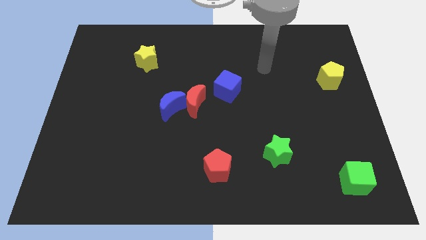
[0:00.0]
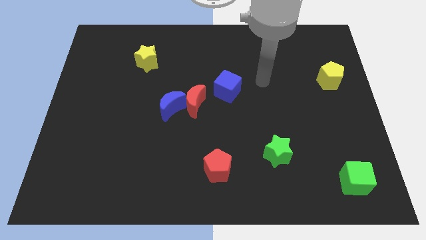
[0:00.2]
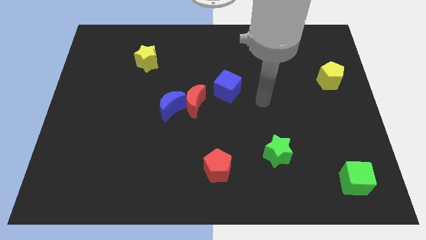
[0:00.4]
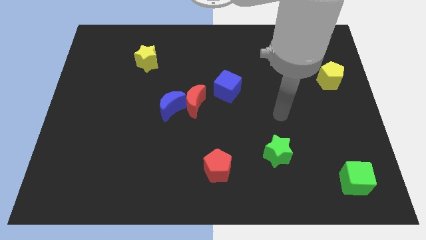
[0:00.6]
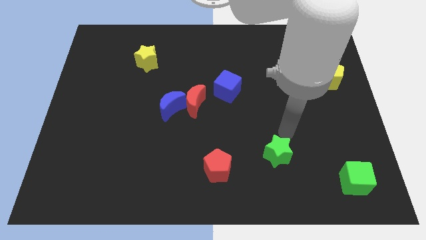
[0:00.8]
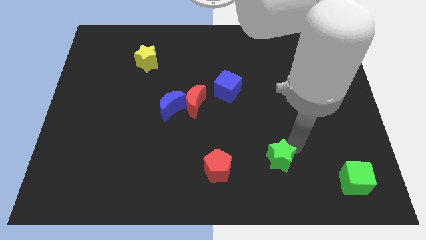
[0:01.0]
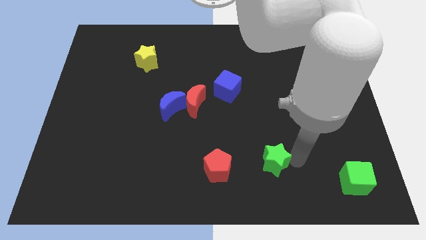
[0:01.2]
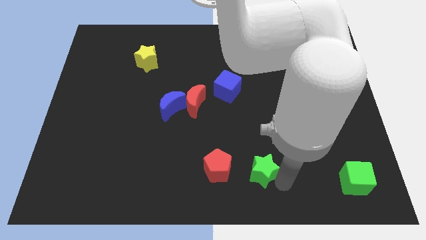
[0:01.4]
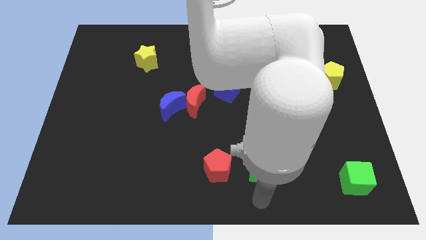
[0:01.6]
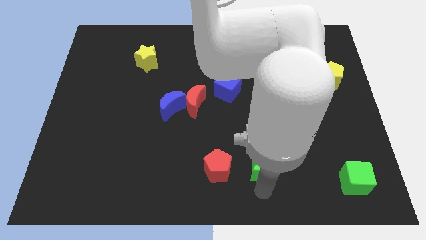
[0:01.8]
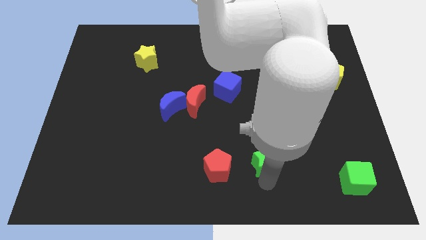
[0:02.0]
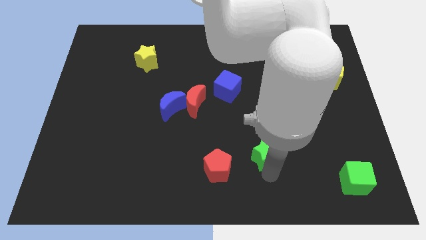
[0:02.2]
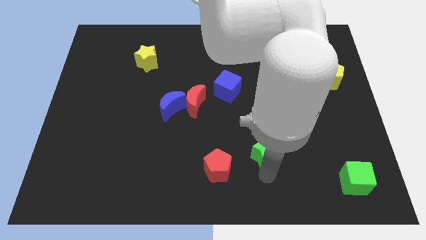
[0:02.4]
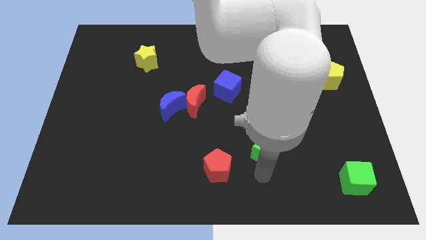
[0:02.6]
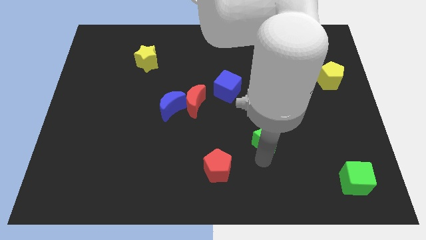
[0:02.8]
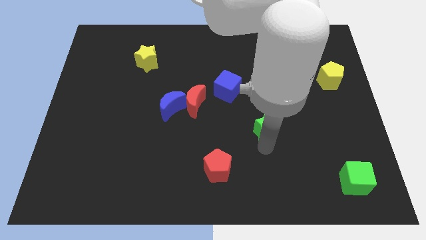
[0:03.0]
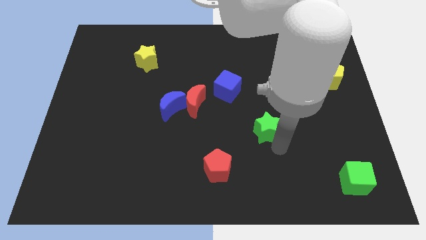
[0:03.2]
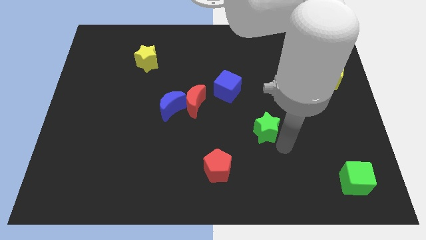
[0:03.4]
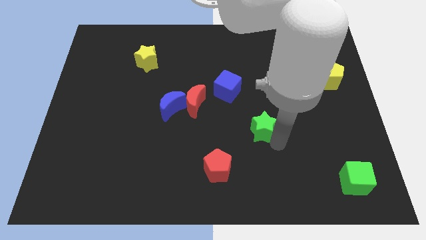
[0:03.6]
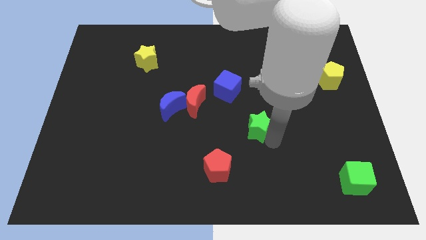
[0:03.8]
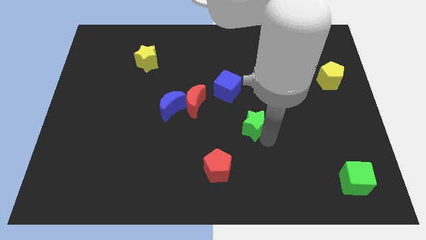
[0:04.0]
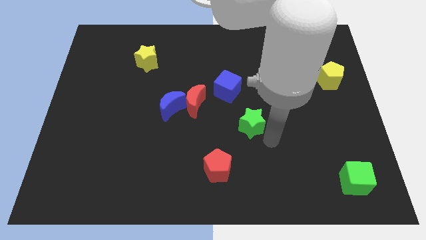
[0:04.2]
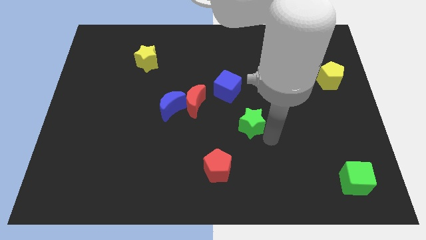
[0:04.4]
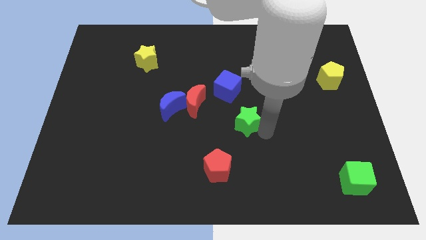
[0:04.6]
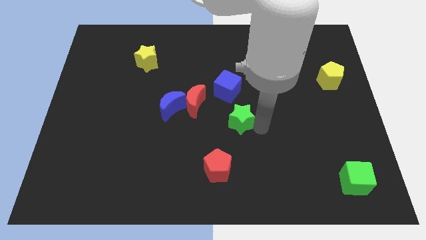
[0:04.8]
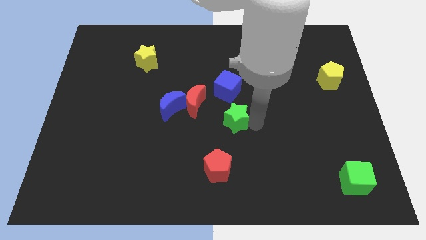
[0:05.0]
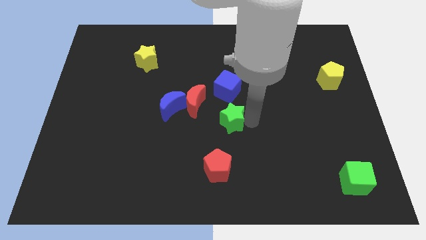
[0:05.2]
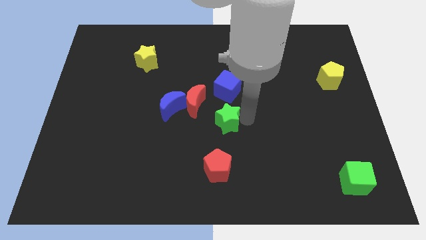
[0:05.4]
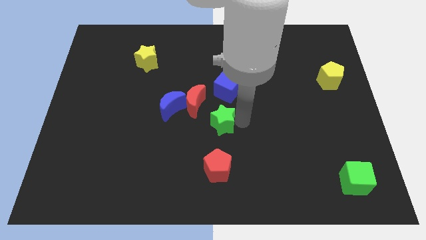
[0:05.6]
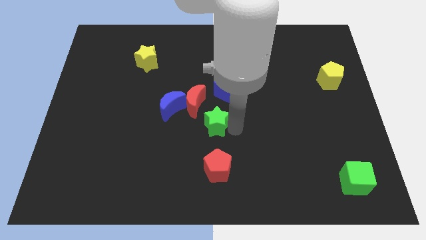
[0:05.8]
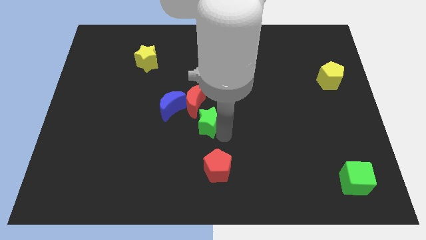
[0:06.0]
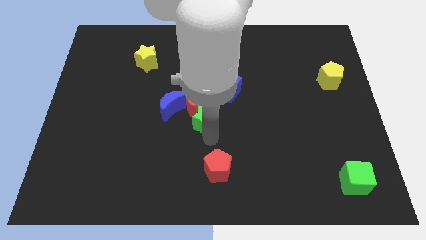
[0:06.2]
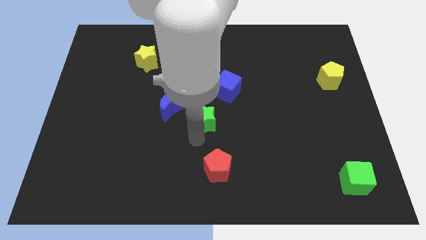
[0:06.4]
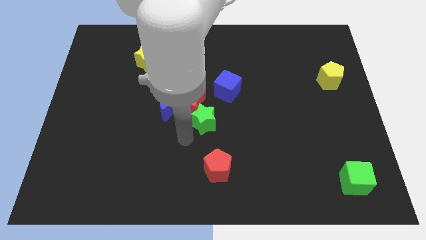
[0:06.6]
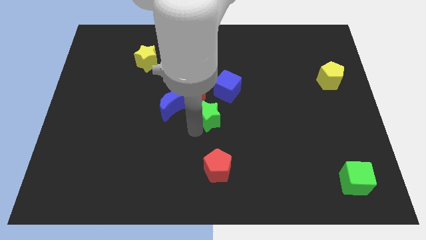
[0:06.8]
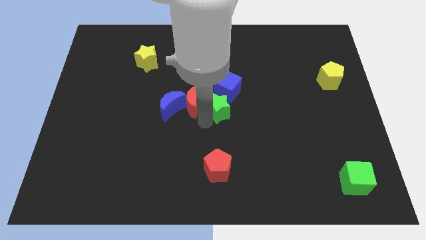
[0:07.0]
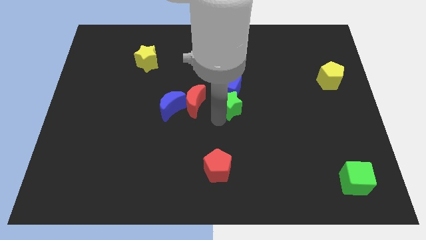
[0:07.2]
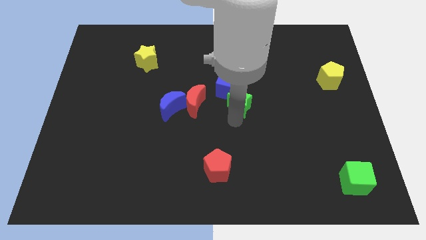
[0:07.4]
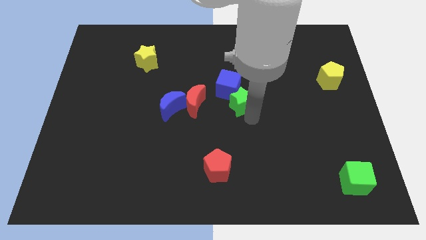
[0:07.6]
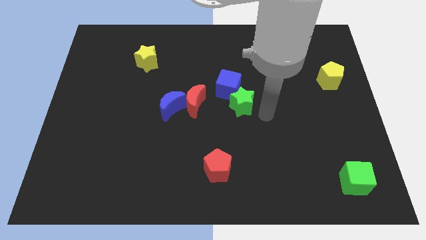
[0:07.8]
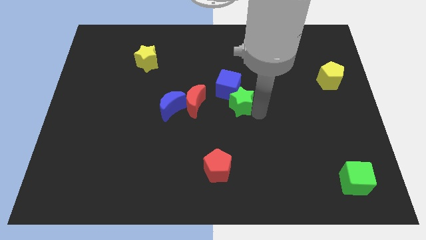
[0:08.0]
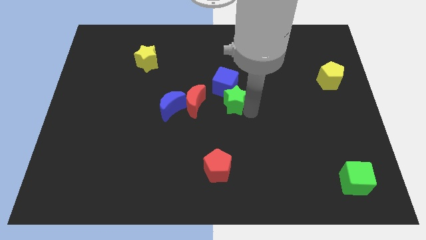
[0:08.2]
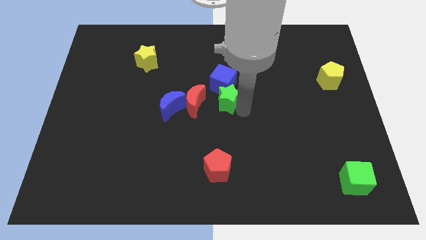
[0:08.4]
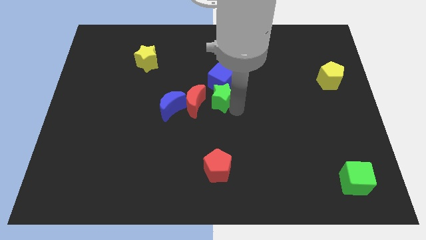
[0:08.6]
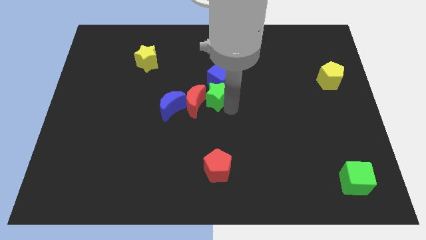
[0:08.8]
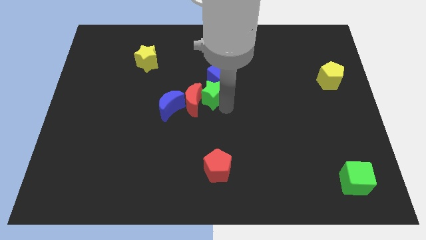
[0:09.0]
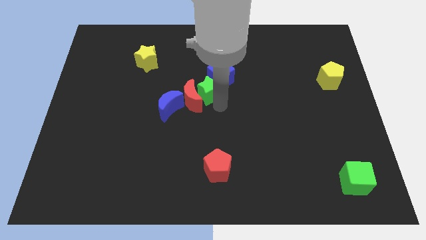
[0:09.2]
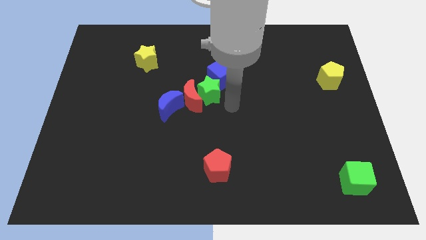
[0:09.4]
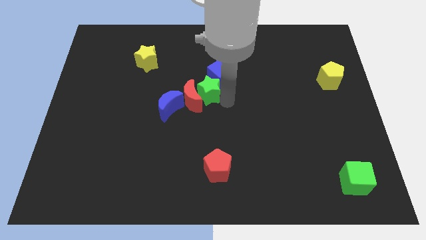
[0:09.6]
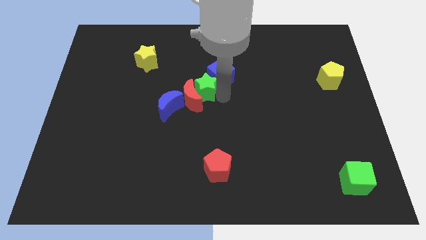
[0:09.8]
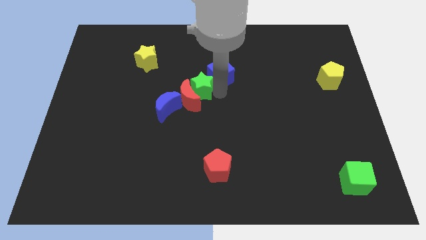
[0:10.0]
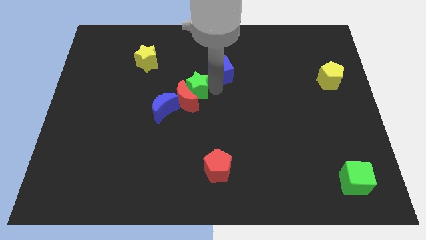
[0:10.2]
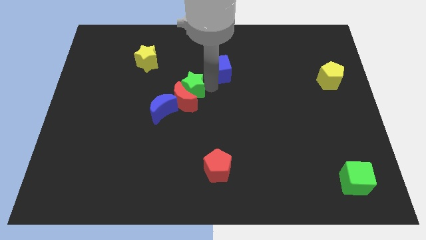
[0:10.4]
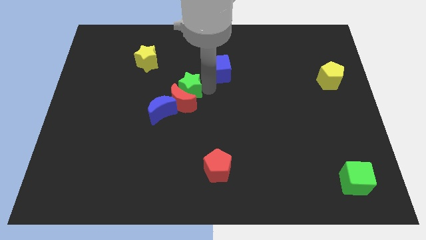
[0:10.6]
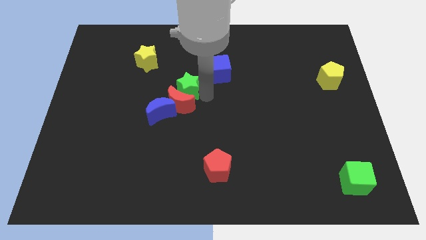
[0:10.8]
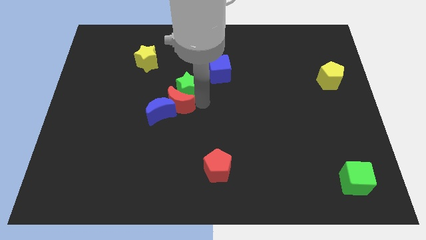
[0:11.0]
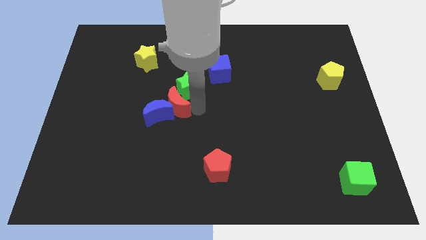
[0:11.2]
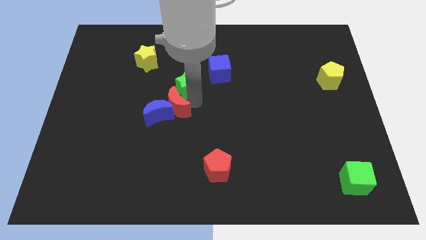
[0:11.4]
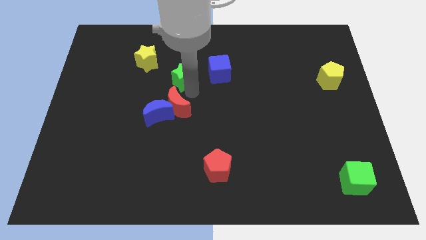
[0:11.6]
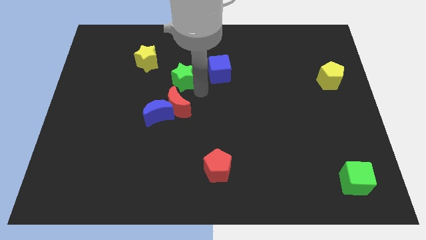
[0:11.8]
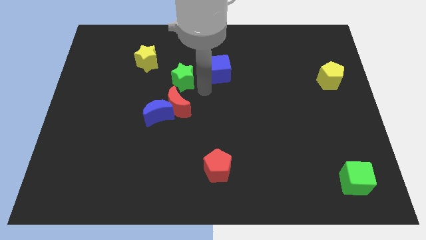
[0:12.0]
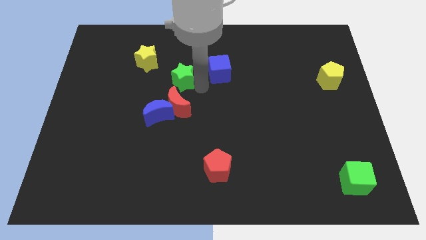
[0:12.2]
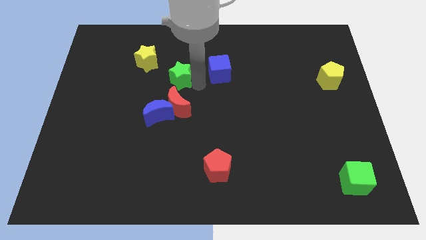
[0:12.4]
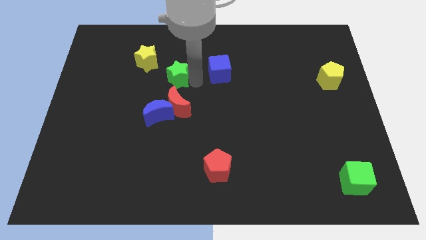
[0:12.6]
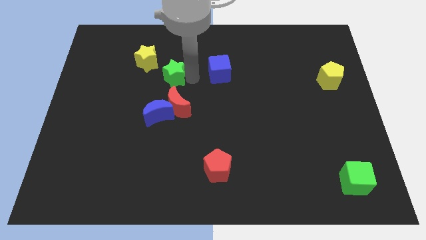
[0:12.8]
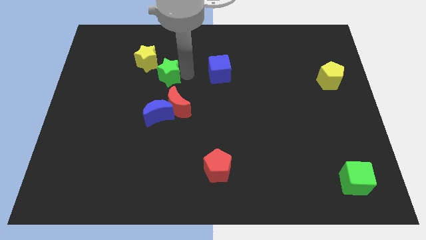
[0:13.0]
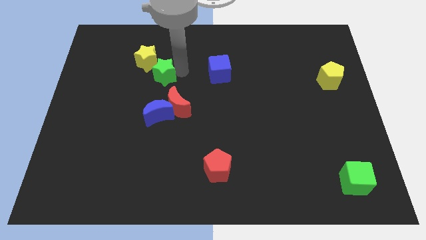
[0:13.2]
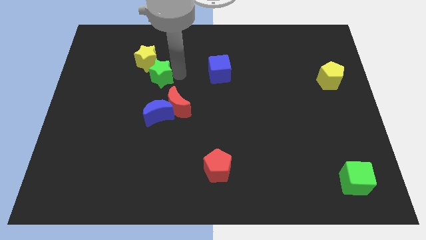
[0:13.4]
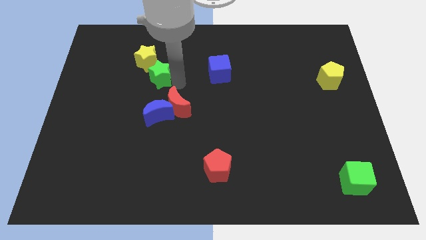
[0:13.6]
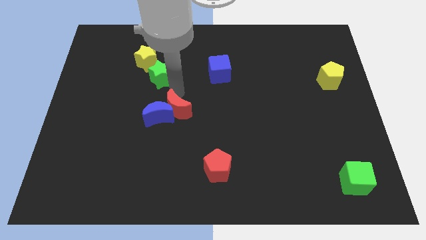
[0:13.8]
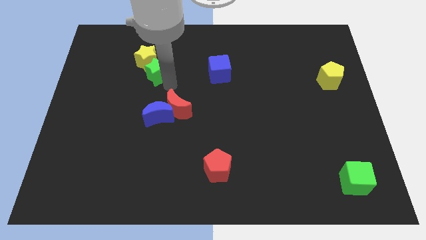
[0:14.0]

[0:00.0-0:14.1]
push the green star close to the yellow star
